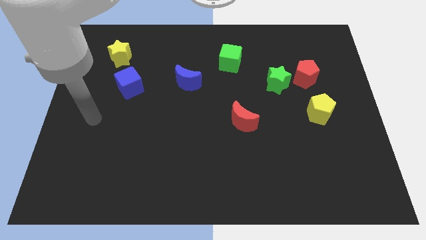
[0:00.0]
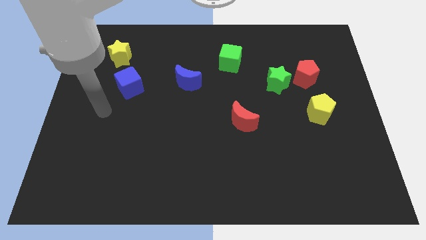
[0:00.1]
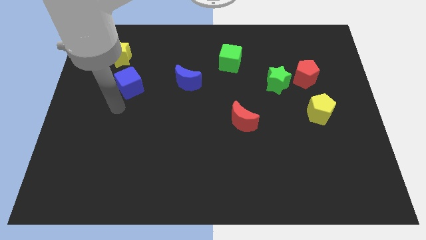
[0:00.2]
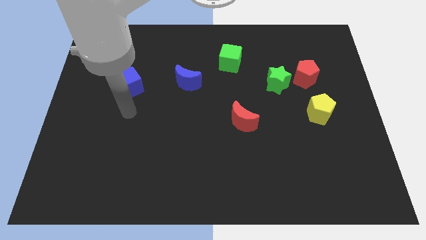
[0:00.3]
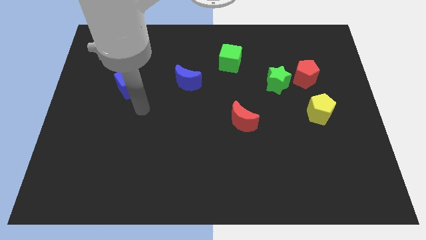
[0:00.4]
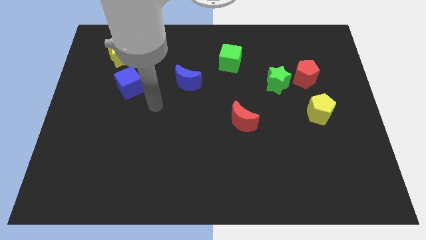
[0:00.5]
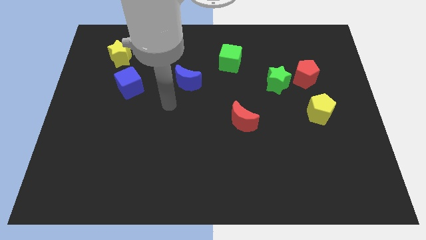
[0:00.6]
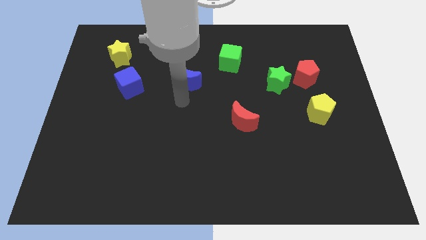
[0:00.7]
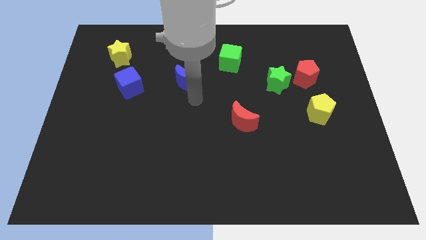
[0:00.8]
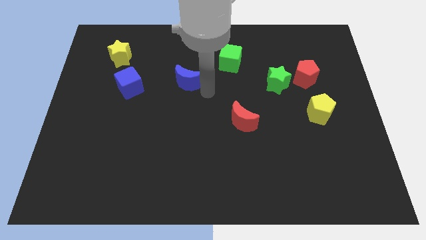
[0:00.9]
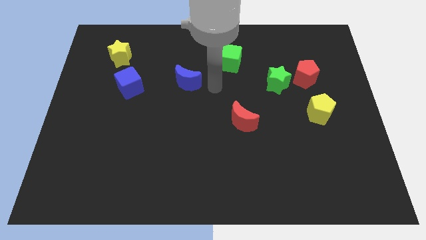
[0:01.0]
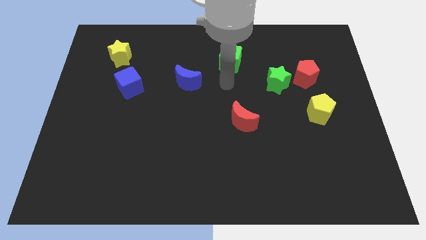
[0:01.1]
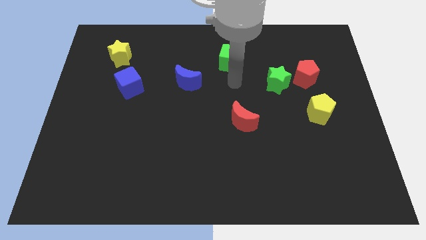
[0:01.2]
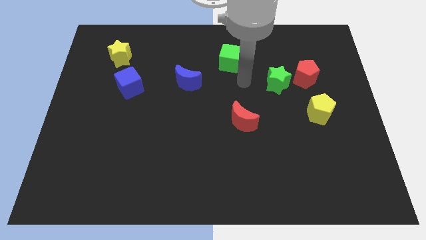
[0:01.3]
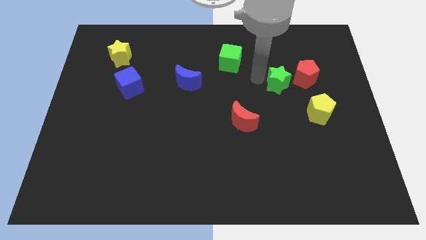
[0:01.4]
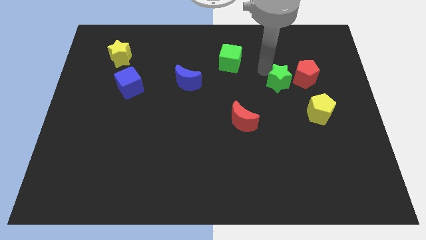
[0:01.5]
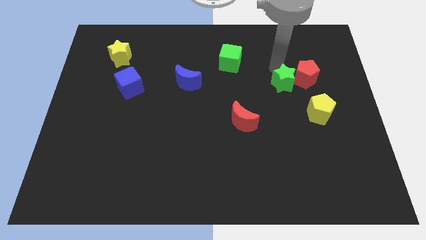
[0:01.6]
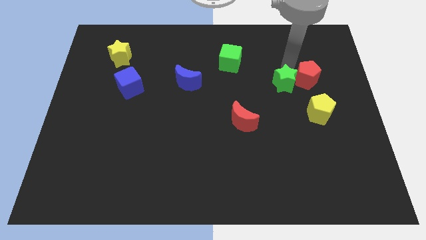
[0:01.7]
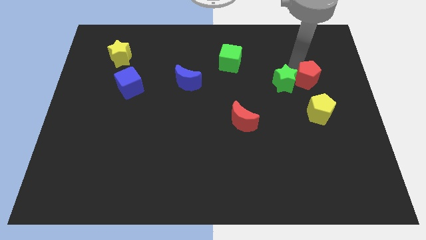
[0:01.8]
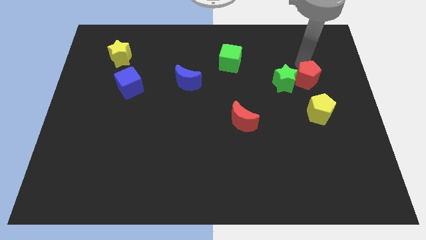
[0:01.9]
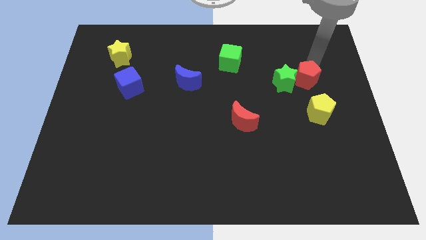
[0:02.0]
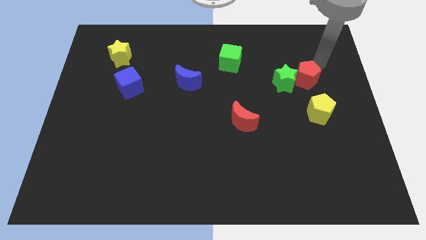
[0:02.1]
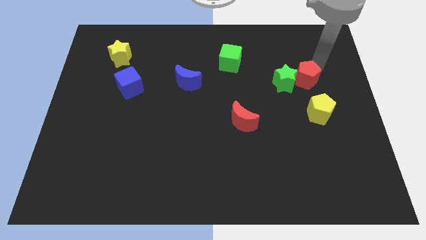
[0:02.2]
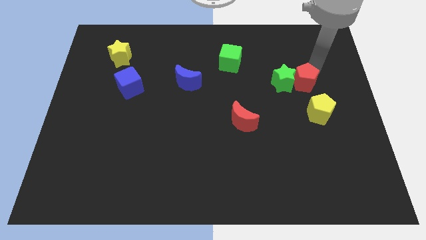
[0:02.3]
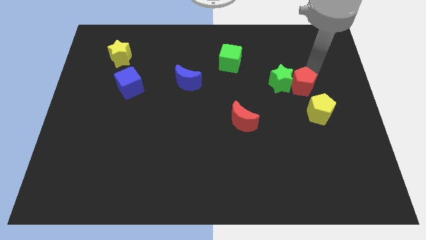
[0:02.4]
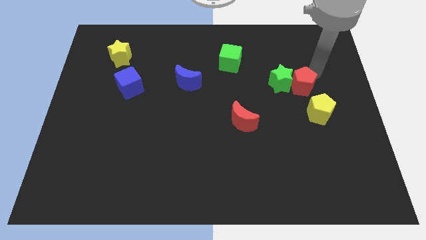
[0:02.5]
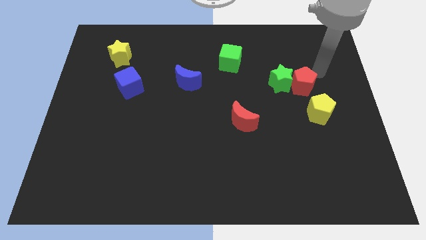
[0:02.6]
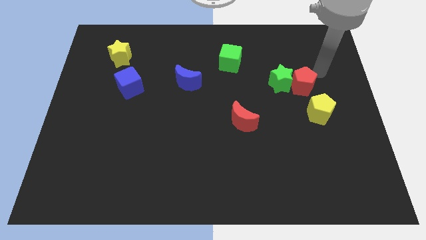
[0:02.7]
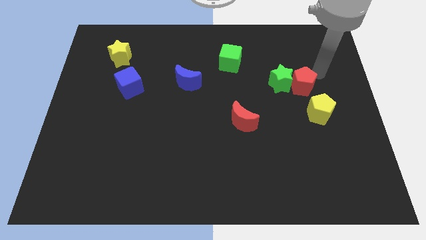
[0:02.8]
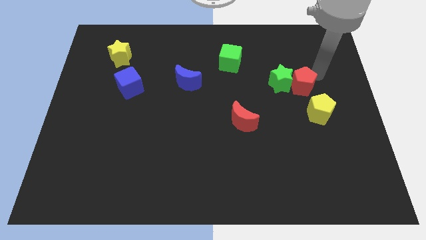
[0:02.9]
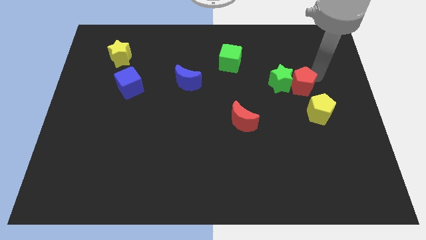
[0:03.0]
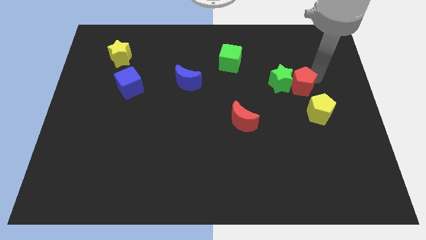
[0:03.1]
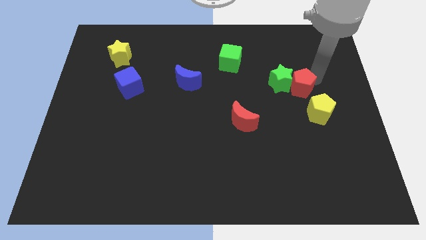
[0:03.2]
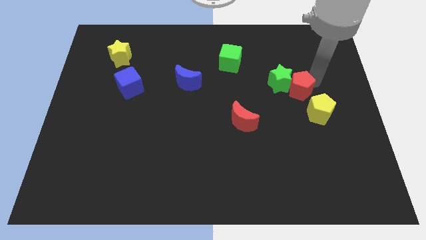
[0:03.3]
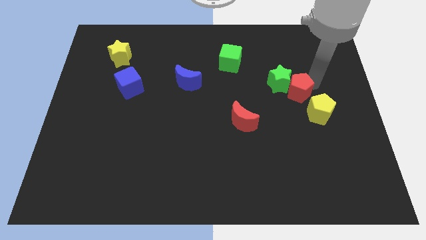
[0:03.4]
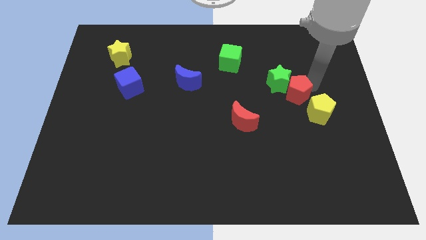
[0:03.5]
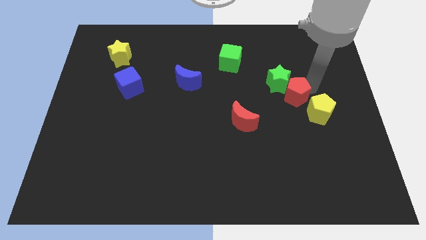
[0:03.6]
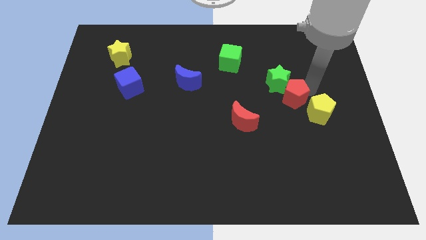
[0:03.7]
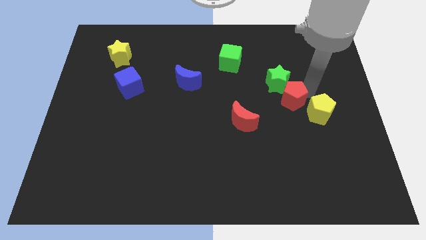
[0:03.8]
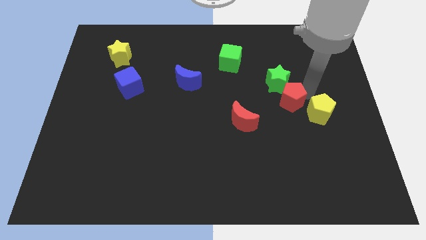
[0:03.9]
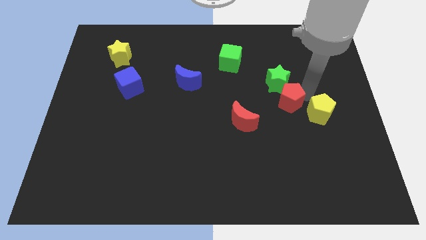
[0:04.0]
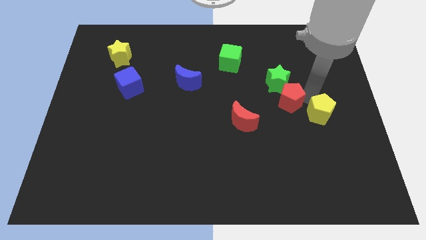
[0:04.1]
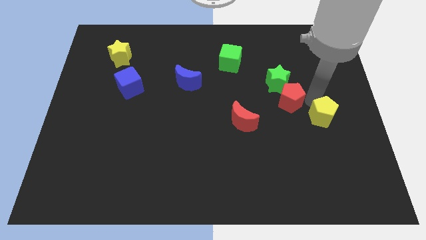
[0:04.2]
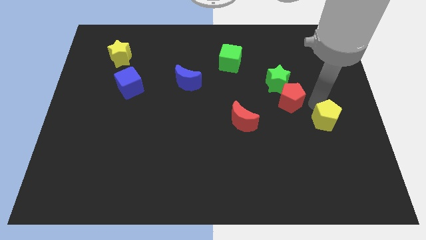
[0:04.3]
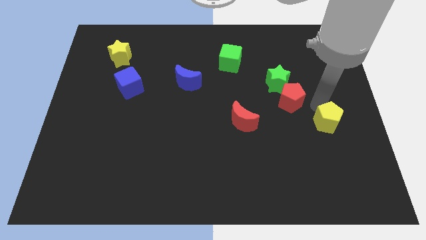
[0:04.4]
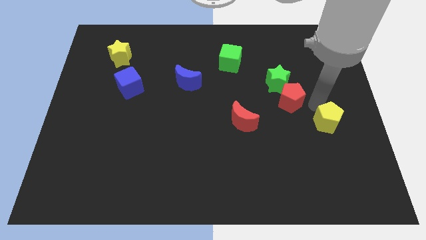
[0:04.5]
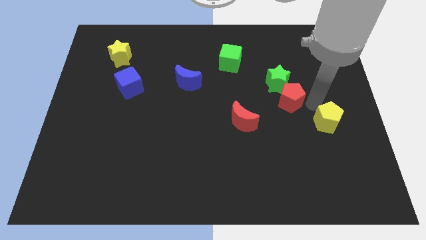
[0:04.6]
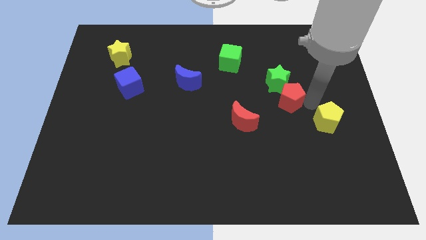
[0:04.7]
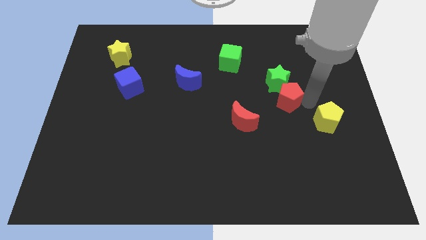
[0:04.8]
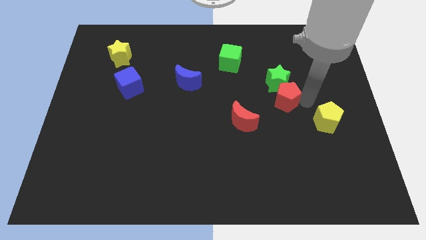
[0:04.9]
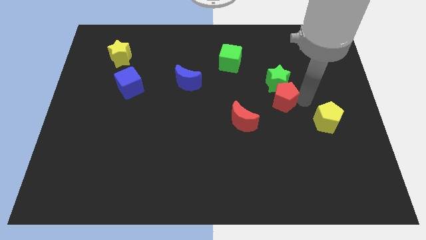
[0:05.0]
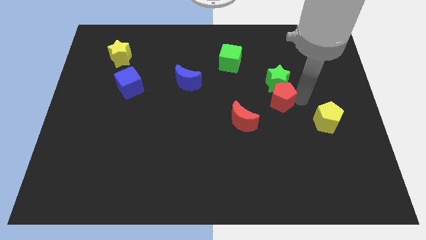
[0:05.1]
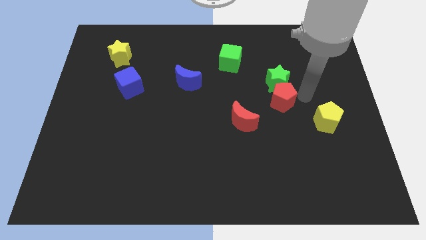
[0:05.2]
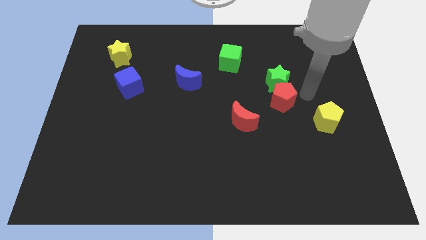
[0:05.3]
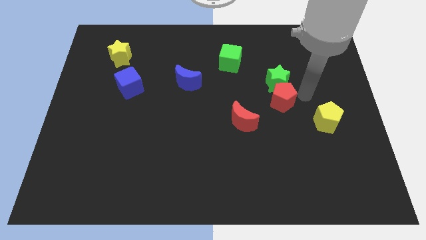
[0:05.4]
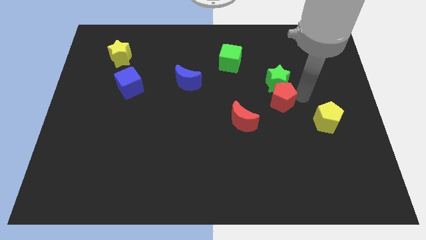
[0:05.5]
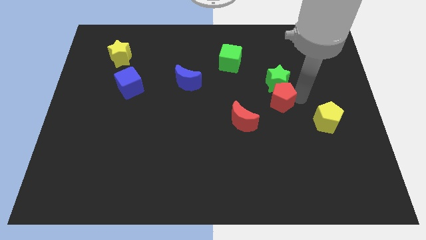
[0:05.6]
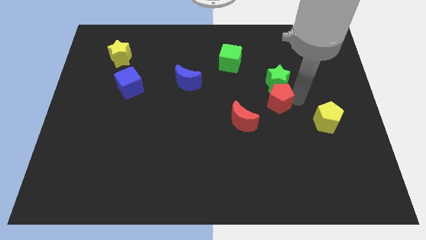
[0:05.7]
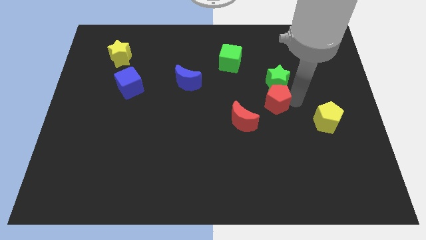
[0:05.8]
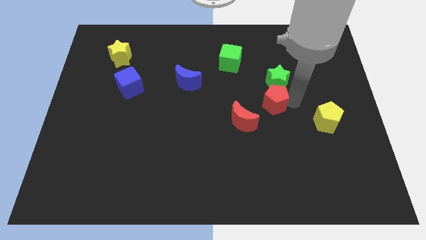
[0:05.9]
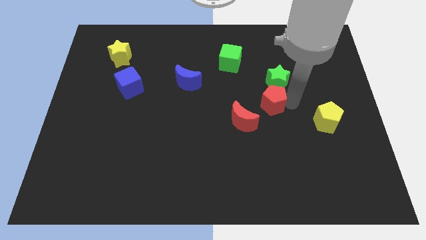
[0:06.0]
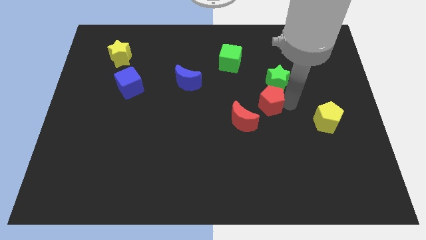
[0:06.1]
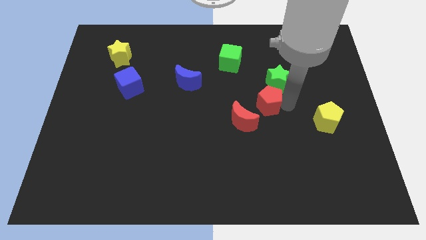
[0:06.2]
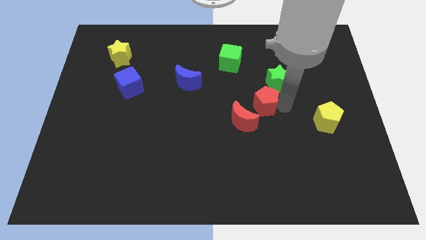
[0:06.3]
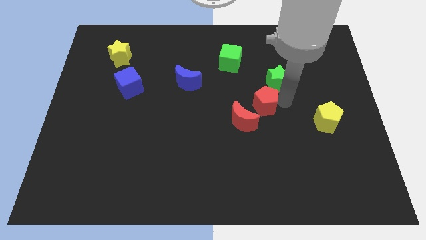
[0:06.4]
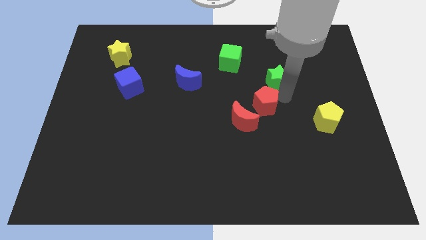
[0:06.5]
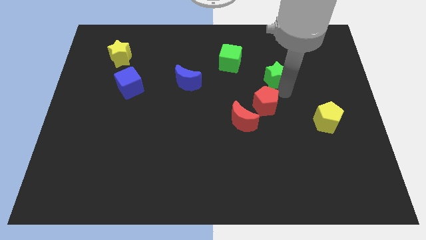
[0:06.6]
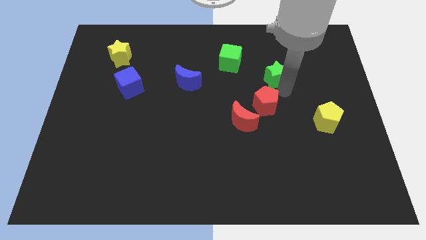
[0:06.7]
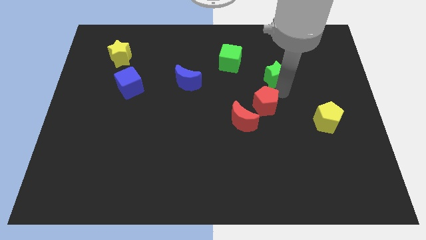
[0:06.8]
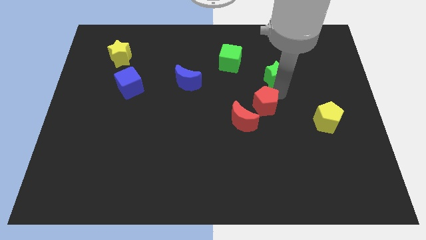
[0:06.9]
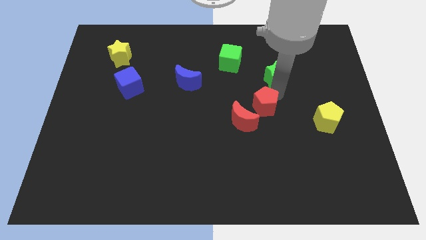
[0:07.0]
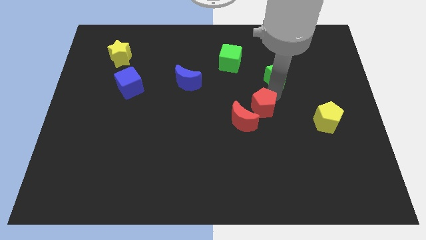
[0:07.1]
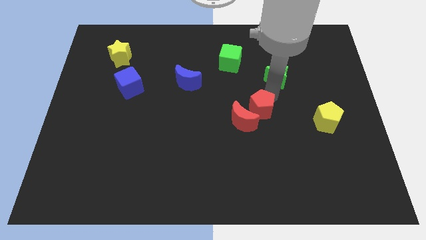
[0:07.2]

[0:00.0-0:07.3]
push the red pentagon to the red moon
